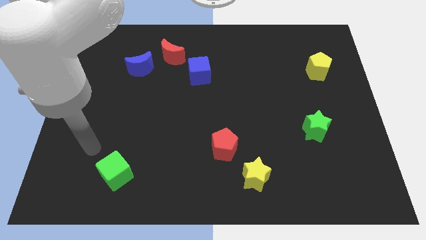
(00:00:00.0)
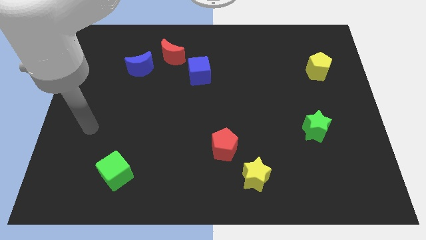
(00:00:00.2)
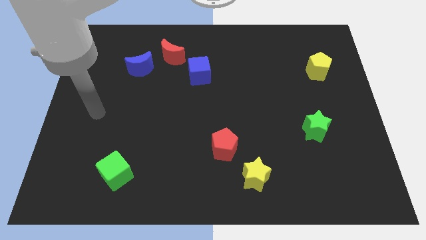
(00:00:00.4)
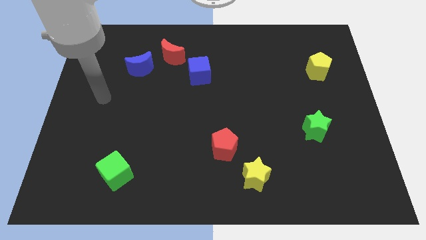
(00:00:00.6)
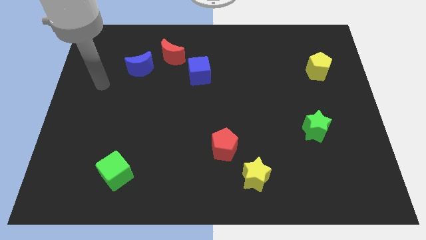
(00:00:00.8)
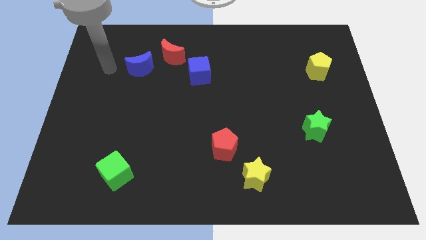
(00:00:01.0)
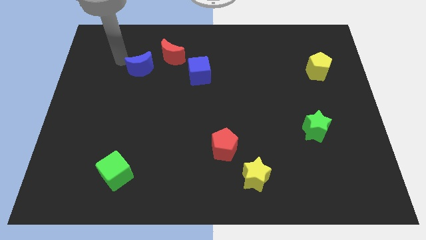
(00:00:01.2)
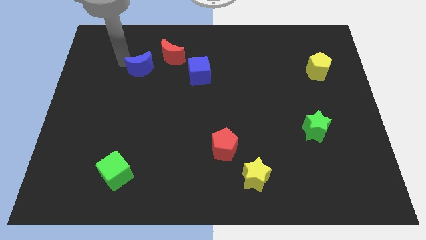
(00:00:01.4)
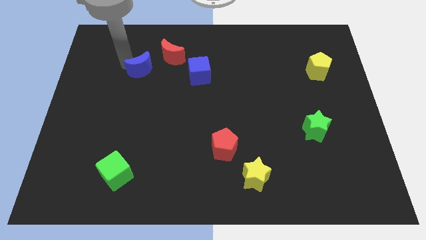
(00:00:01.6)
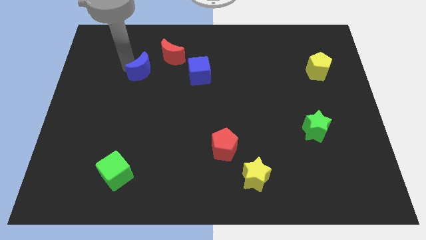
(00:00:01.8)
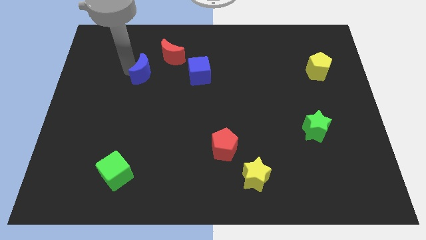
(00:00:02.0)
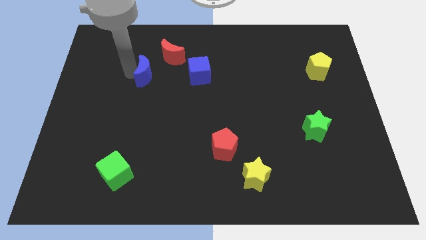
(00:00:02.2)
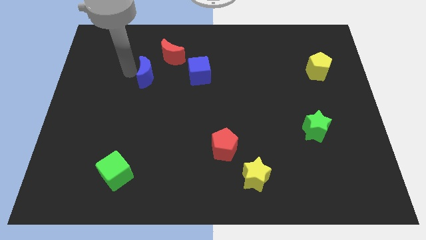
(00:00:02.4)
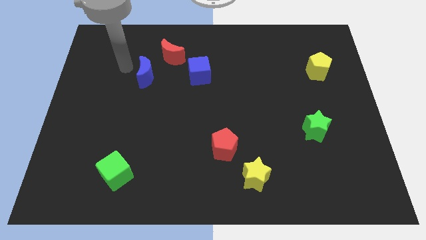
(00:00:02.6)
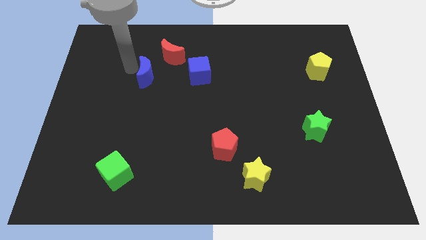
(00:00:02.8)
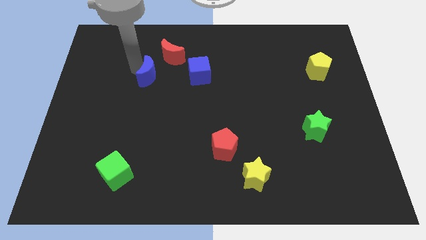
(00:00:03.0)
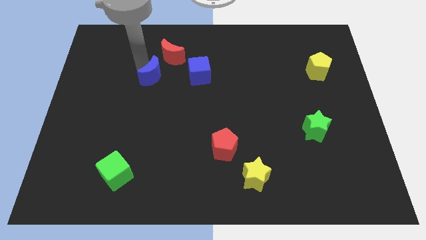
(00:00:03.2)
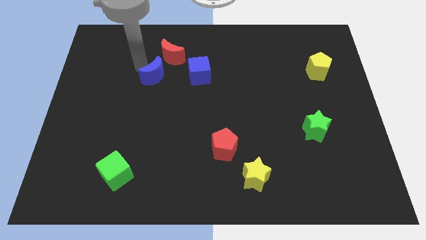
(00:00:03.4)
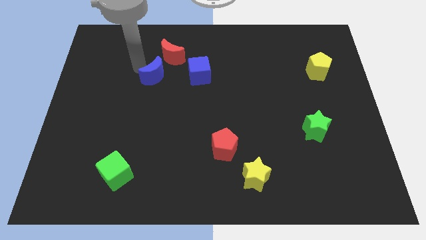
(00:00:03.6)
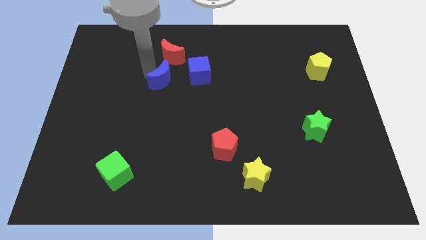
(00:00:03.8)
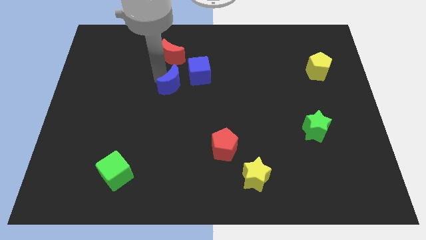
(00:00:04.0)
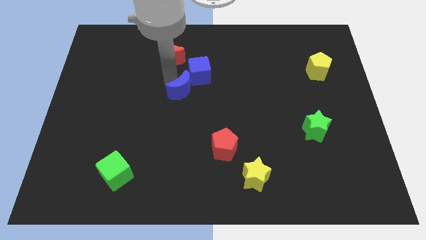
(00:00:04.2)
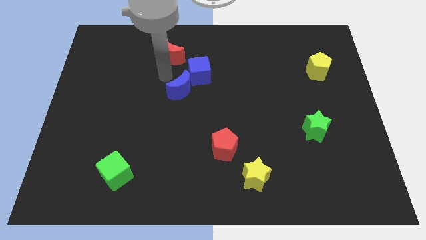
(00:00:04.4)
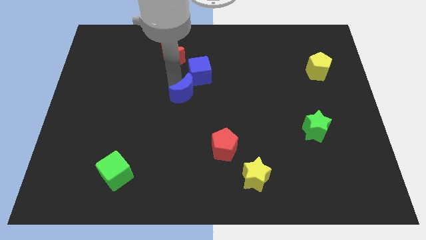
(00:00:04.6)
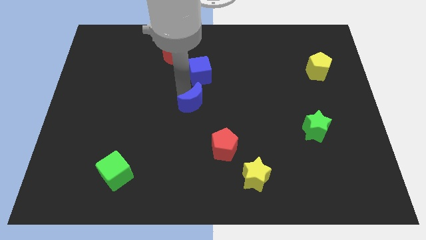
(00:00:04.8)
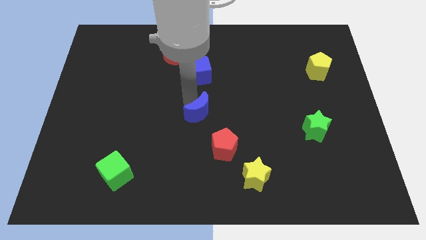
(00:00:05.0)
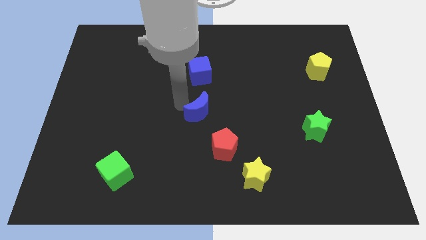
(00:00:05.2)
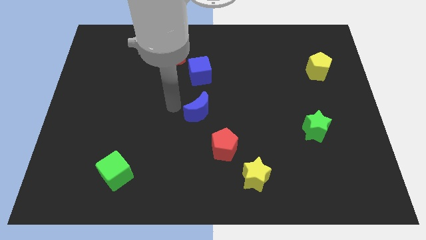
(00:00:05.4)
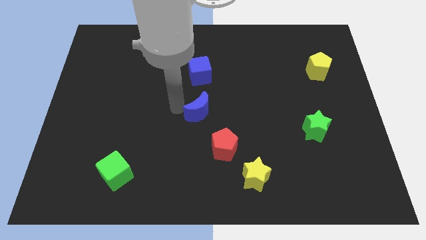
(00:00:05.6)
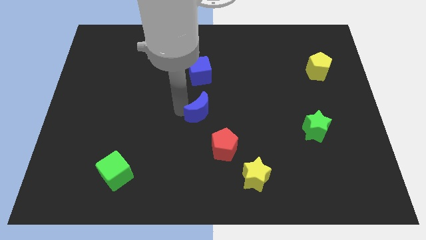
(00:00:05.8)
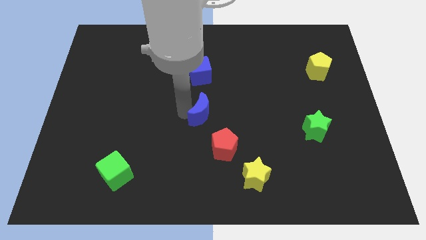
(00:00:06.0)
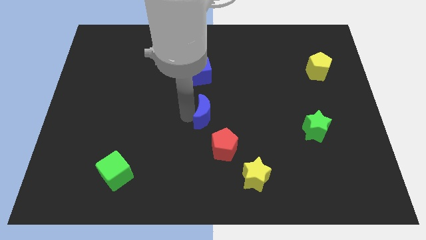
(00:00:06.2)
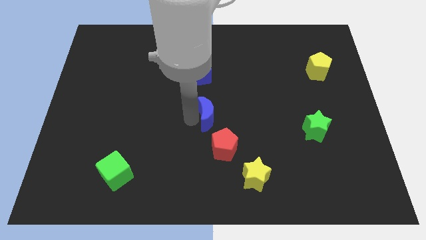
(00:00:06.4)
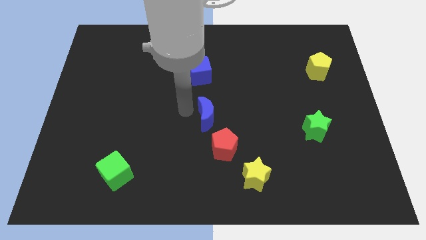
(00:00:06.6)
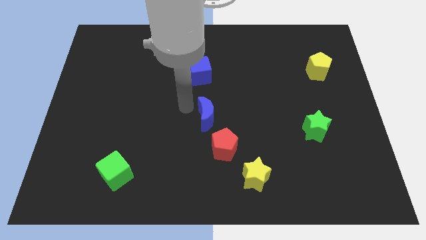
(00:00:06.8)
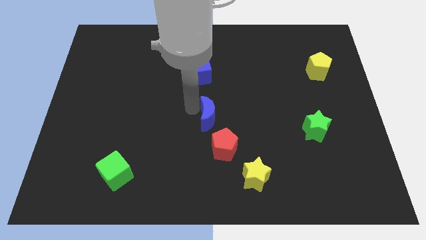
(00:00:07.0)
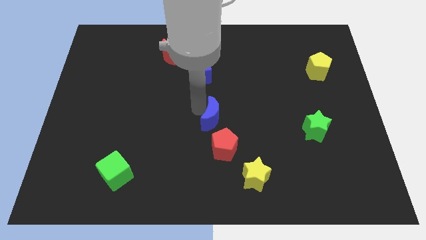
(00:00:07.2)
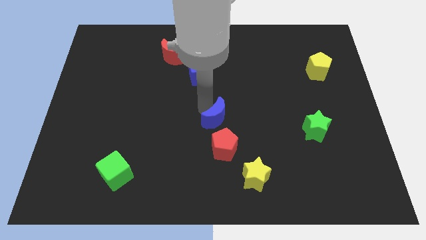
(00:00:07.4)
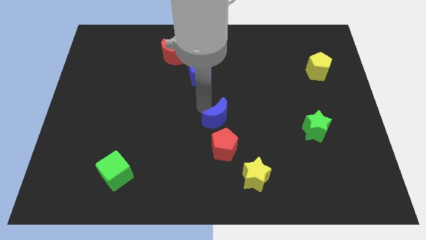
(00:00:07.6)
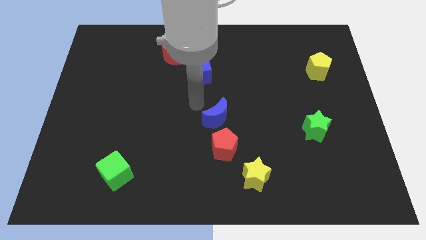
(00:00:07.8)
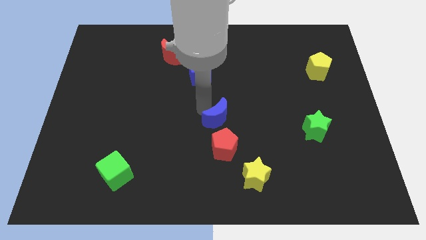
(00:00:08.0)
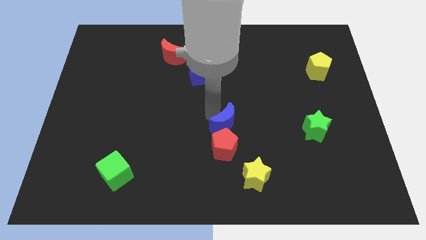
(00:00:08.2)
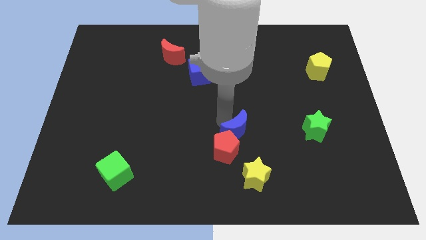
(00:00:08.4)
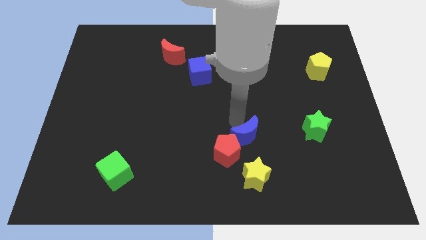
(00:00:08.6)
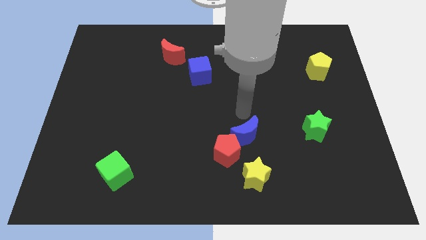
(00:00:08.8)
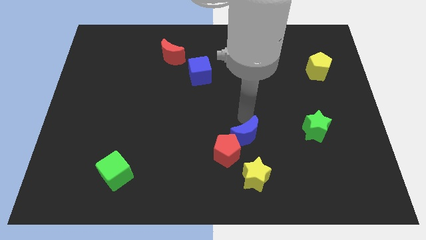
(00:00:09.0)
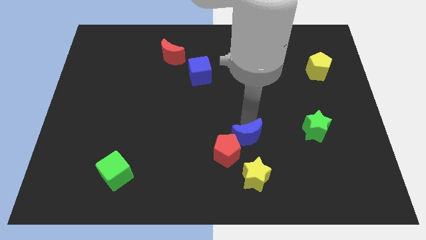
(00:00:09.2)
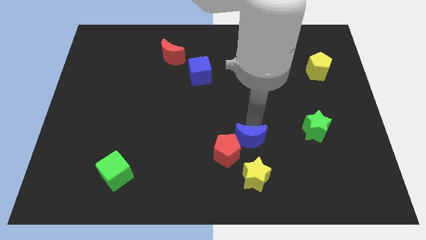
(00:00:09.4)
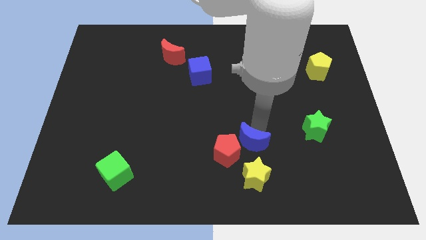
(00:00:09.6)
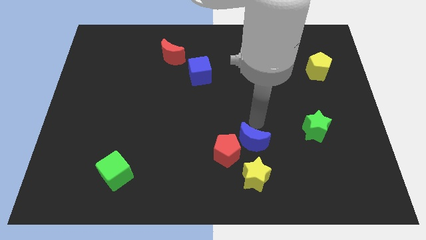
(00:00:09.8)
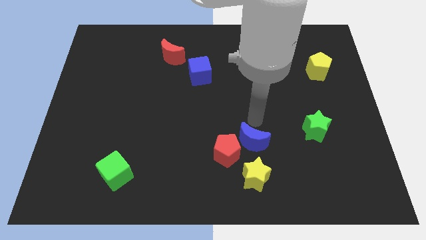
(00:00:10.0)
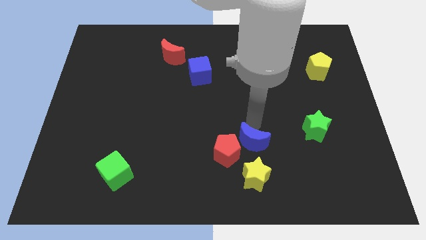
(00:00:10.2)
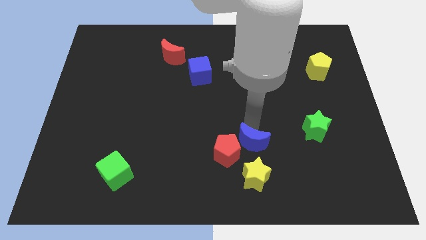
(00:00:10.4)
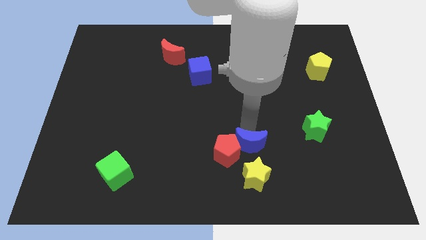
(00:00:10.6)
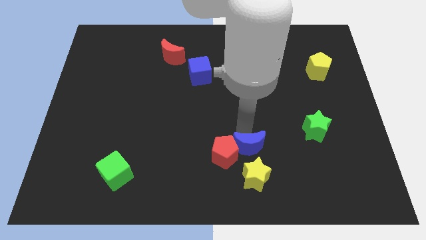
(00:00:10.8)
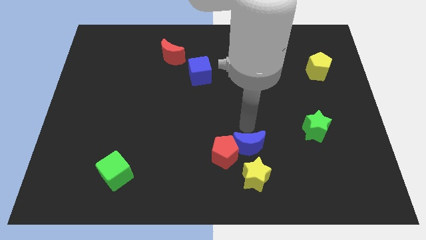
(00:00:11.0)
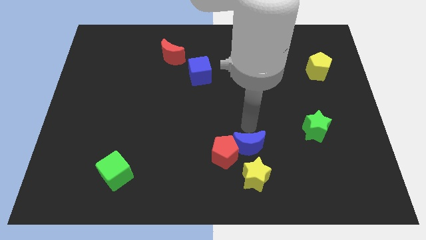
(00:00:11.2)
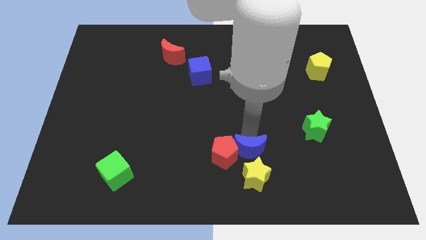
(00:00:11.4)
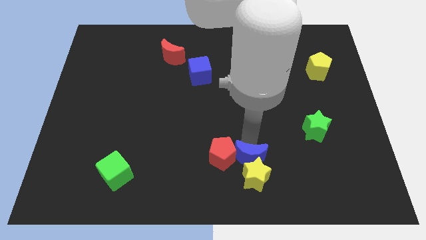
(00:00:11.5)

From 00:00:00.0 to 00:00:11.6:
put the blue moon to the yellow star

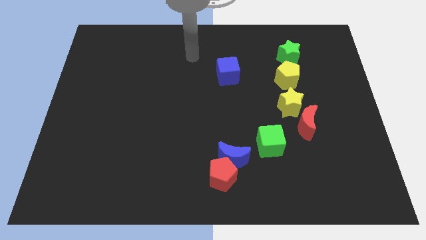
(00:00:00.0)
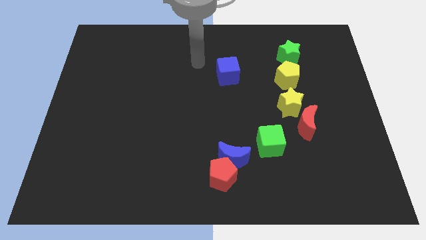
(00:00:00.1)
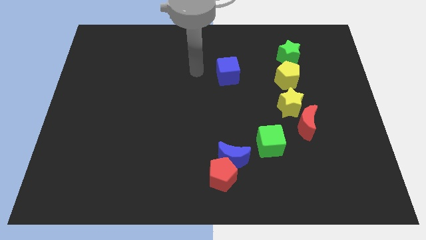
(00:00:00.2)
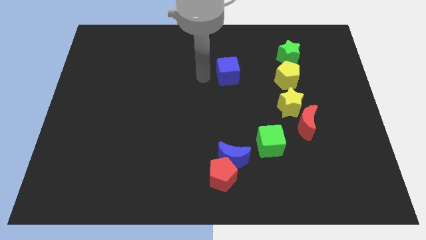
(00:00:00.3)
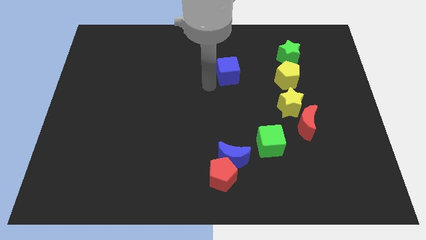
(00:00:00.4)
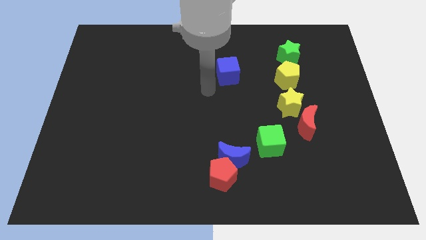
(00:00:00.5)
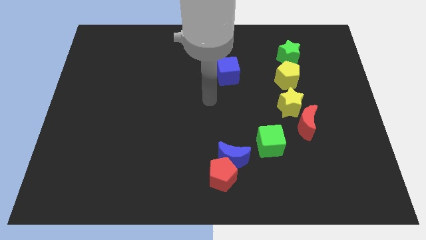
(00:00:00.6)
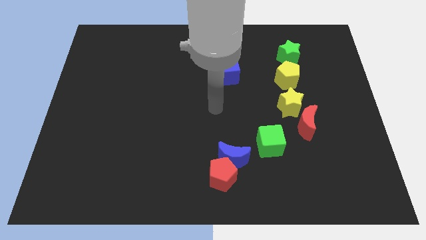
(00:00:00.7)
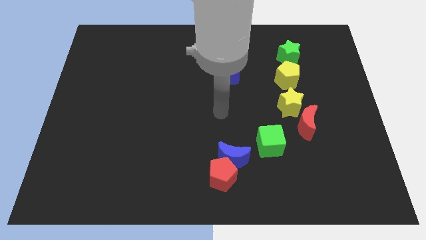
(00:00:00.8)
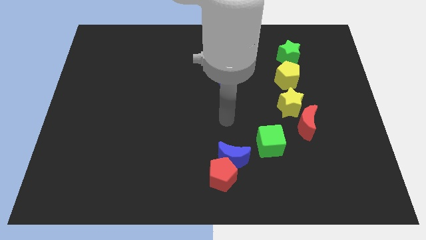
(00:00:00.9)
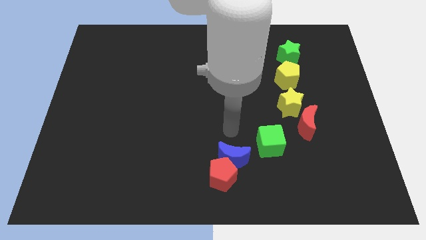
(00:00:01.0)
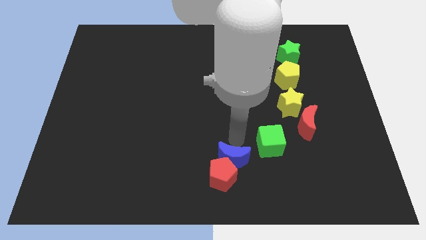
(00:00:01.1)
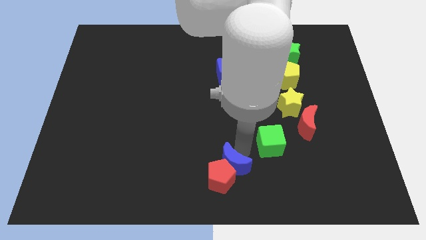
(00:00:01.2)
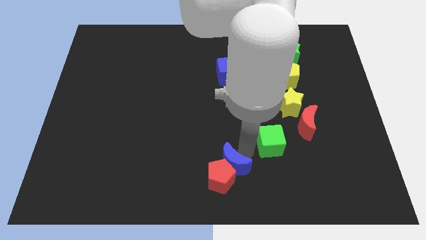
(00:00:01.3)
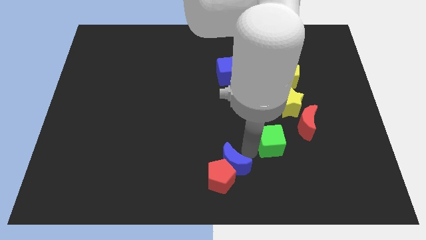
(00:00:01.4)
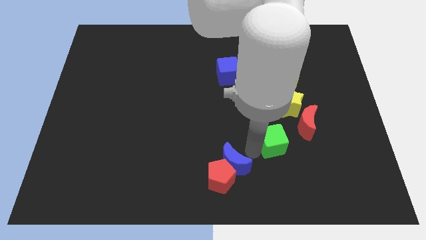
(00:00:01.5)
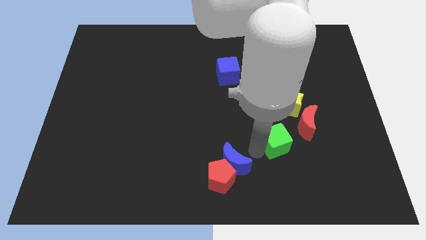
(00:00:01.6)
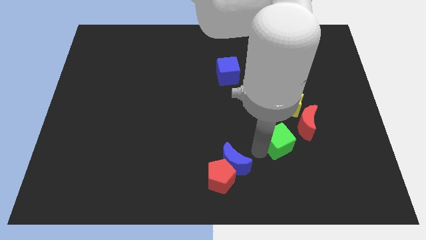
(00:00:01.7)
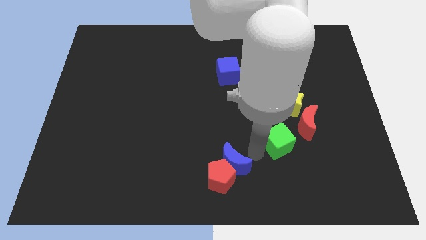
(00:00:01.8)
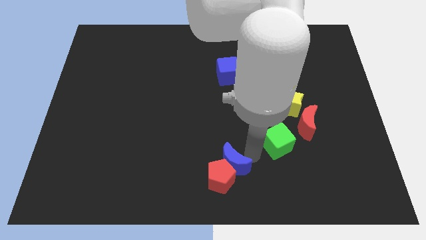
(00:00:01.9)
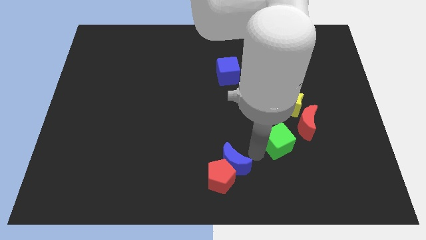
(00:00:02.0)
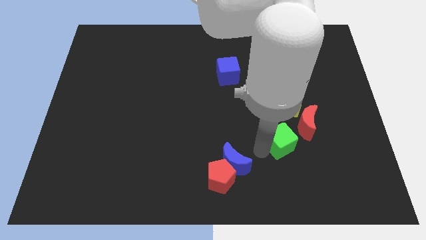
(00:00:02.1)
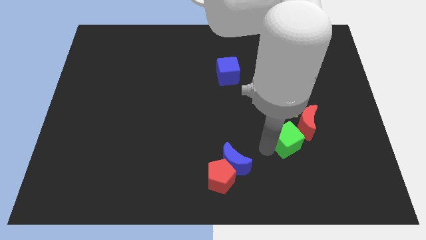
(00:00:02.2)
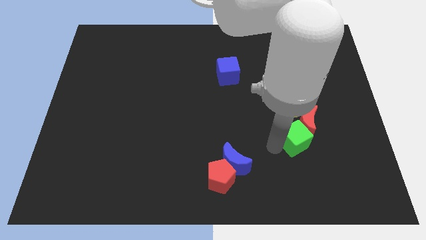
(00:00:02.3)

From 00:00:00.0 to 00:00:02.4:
slide the green cube close to the red moon
